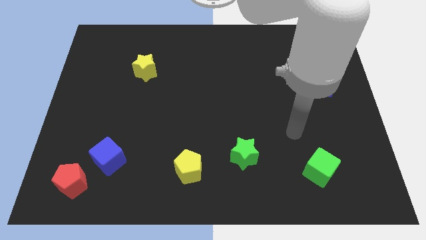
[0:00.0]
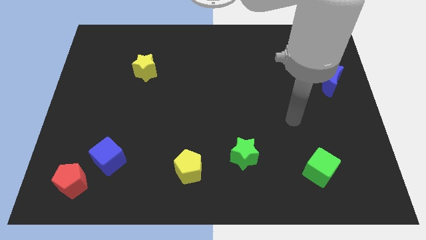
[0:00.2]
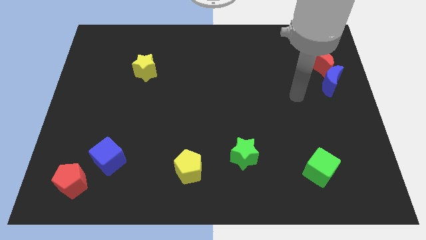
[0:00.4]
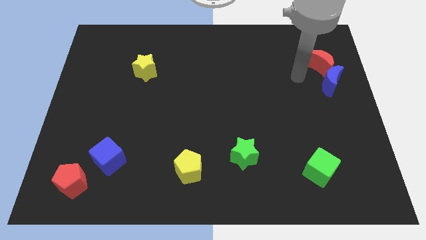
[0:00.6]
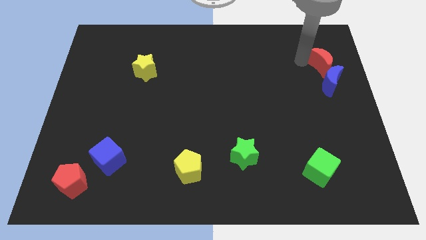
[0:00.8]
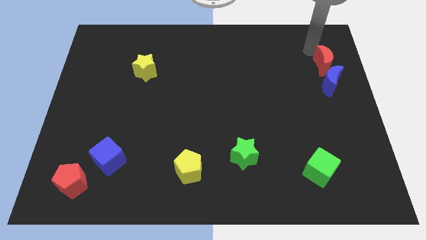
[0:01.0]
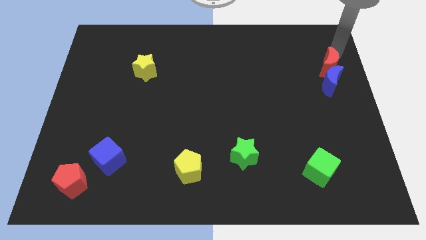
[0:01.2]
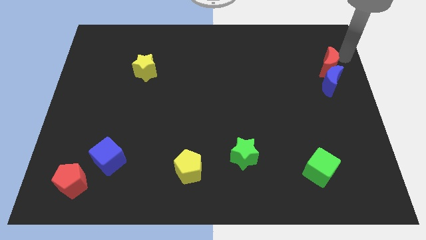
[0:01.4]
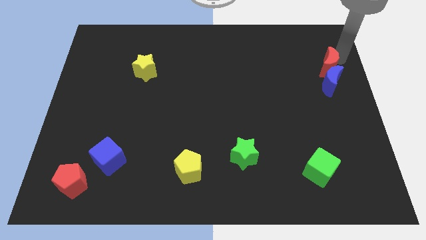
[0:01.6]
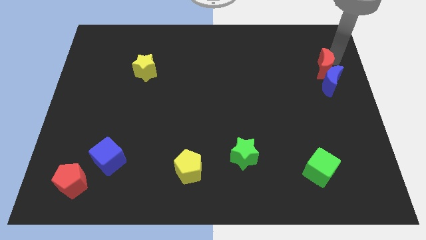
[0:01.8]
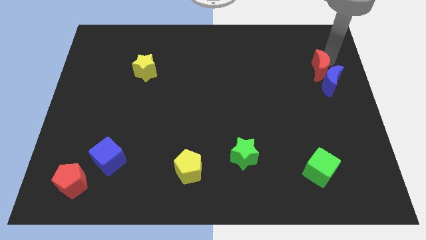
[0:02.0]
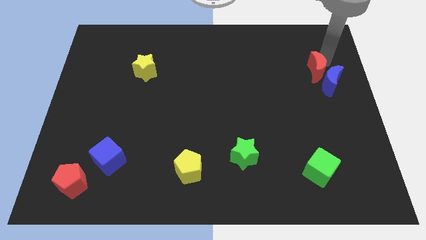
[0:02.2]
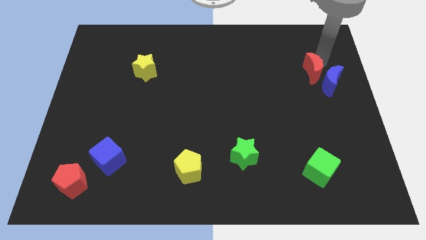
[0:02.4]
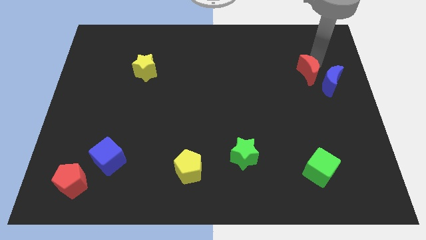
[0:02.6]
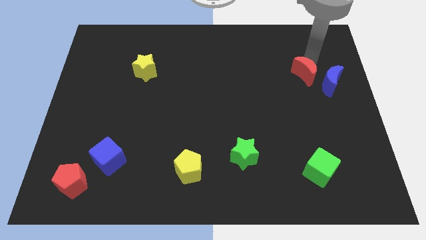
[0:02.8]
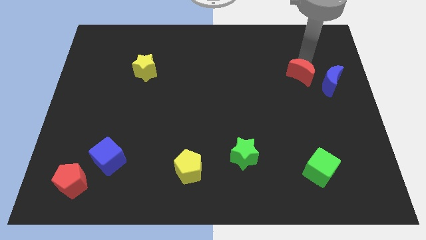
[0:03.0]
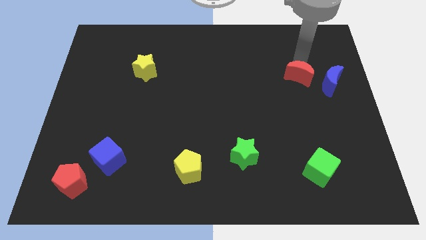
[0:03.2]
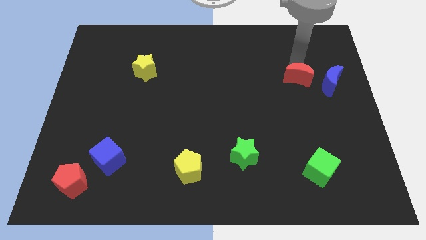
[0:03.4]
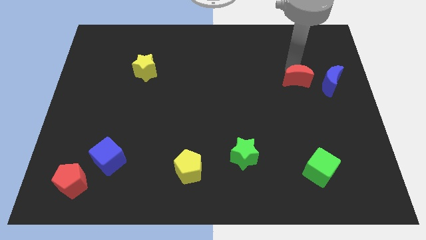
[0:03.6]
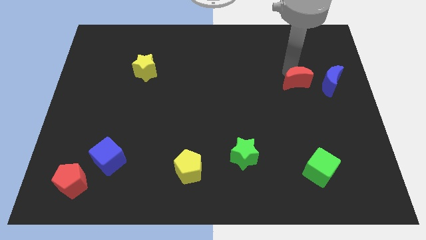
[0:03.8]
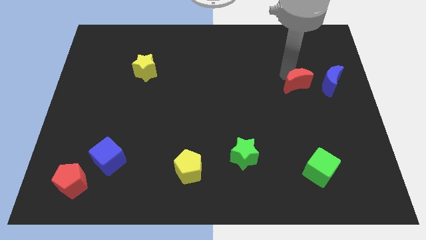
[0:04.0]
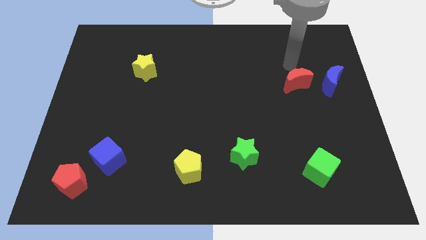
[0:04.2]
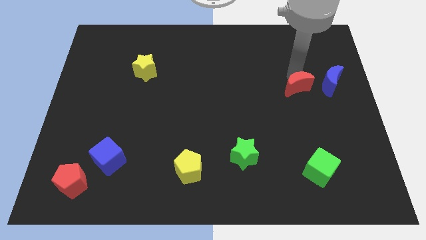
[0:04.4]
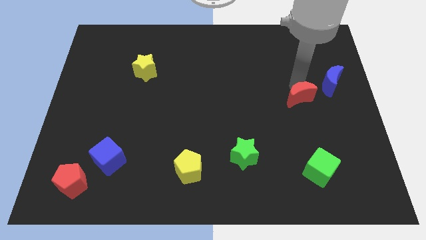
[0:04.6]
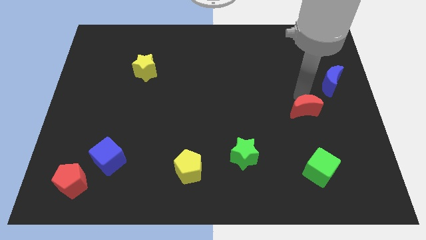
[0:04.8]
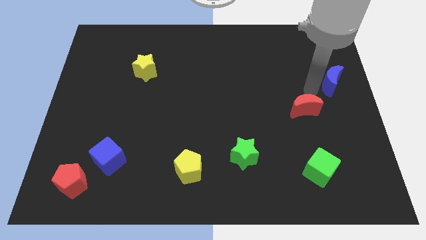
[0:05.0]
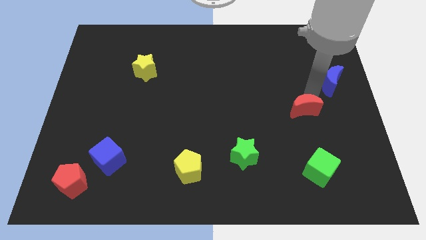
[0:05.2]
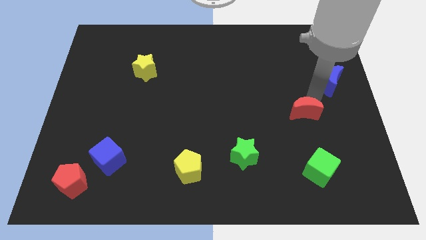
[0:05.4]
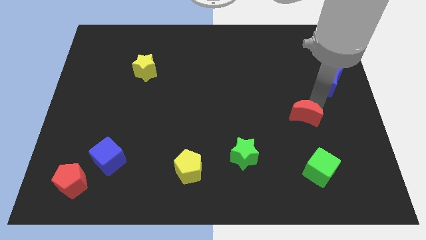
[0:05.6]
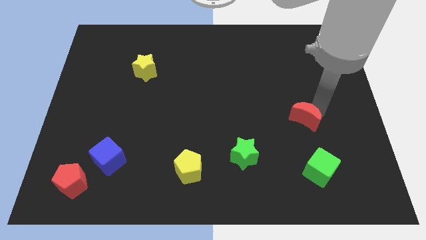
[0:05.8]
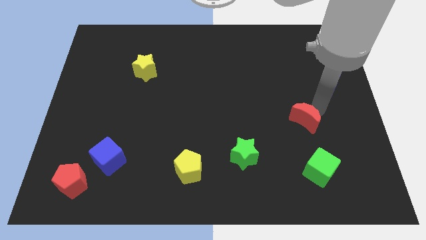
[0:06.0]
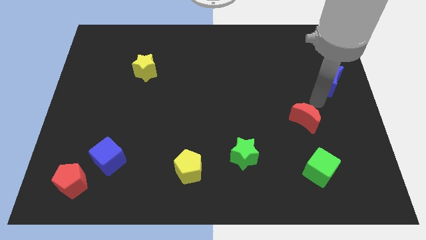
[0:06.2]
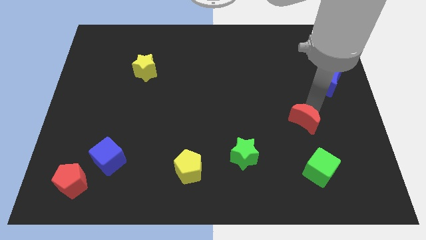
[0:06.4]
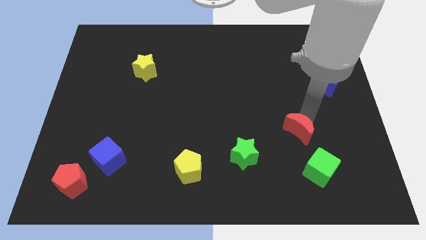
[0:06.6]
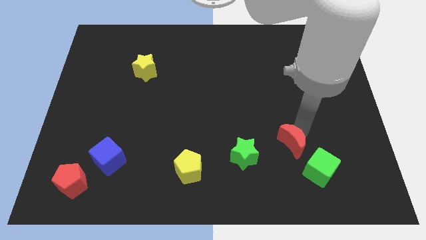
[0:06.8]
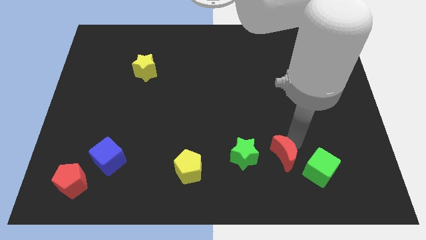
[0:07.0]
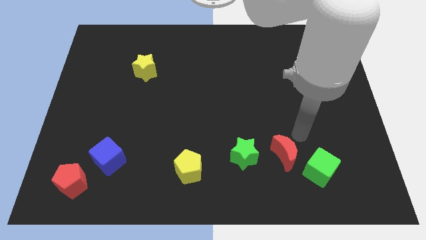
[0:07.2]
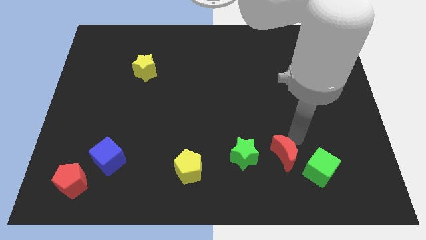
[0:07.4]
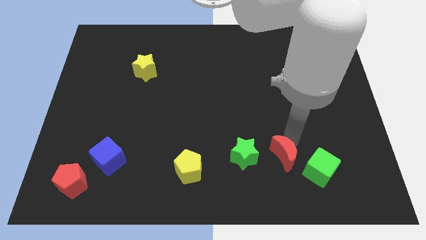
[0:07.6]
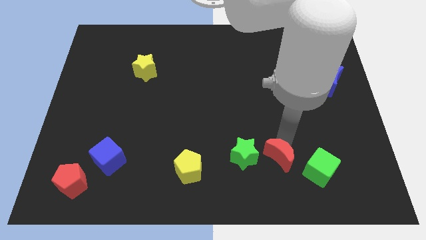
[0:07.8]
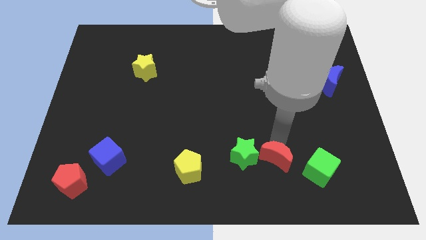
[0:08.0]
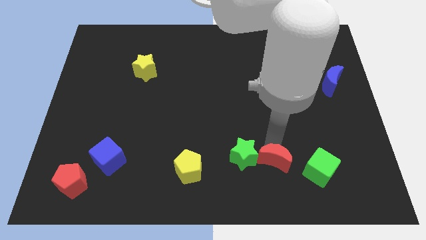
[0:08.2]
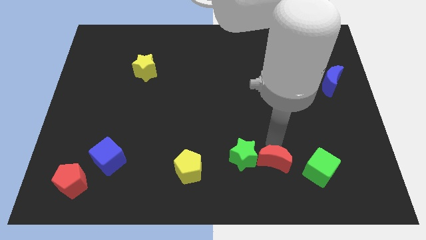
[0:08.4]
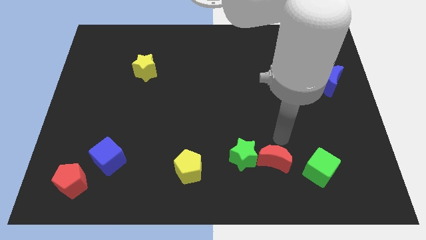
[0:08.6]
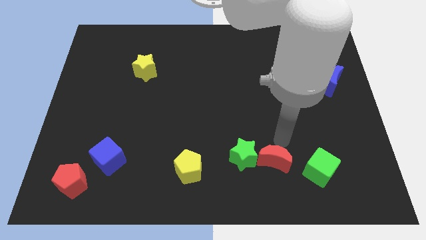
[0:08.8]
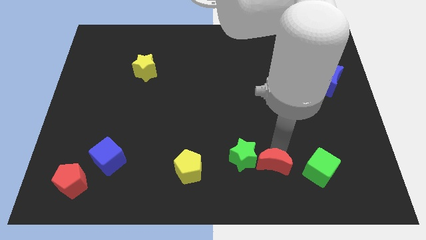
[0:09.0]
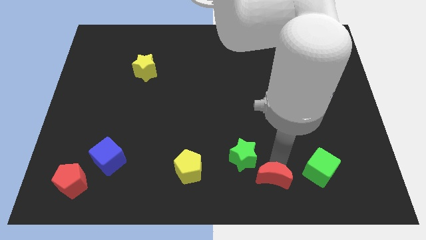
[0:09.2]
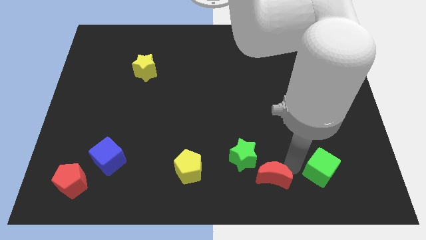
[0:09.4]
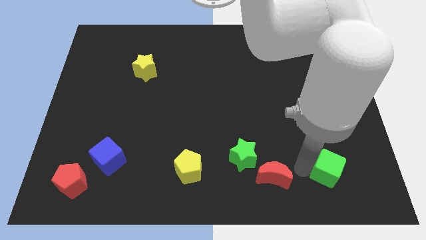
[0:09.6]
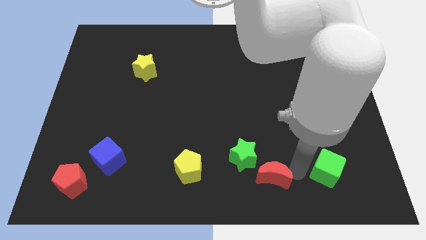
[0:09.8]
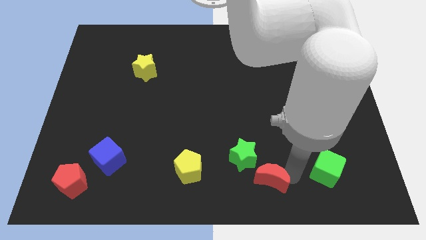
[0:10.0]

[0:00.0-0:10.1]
slide the red moon to the bottom

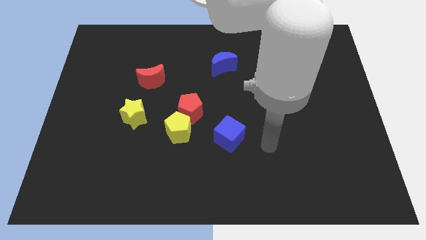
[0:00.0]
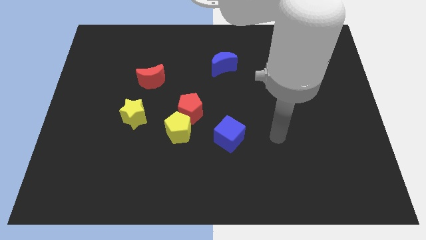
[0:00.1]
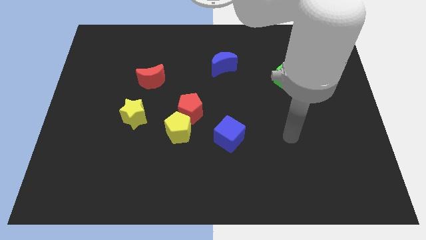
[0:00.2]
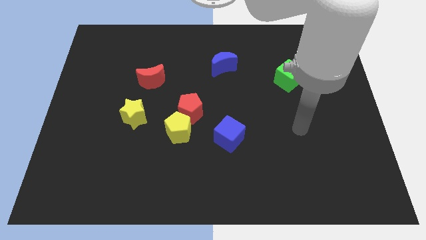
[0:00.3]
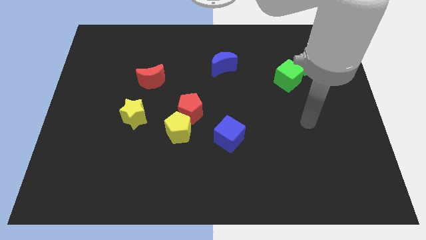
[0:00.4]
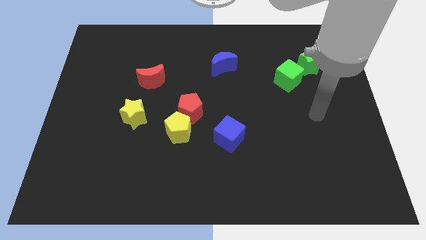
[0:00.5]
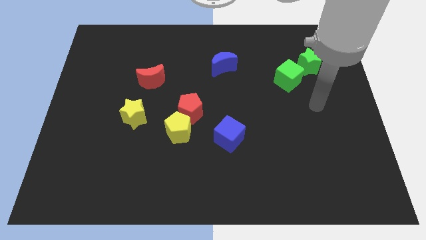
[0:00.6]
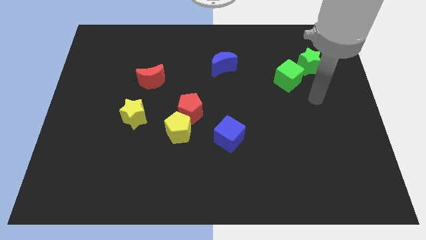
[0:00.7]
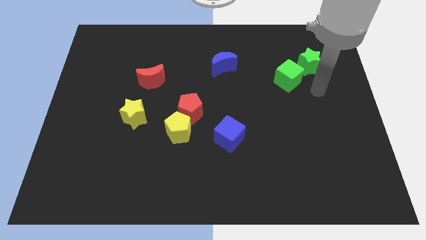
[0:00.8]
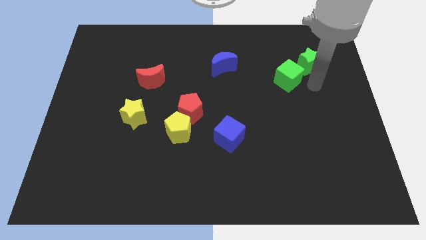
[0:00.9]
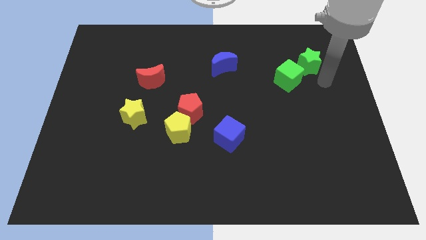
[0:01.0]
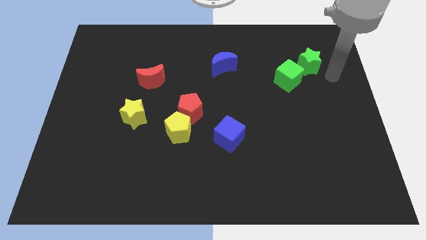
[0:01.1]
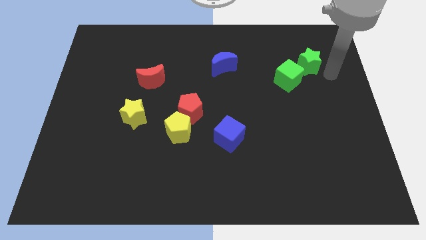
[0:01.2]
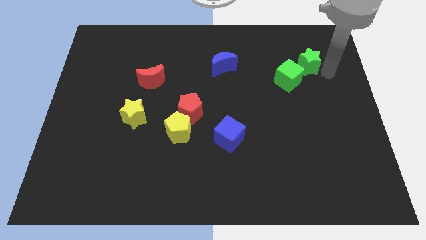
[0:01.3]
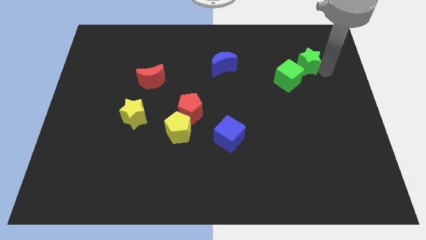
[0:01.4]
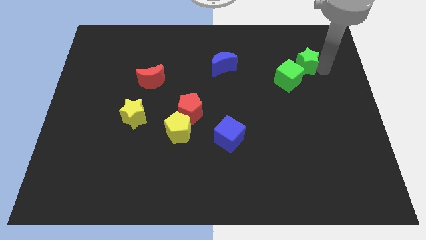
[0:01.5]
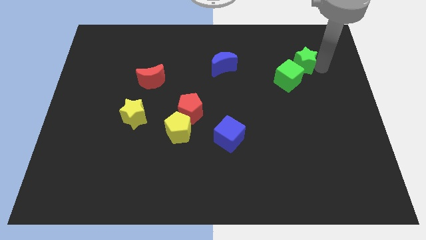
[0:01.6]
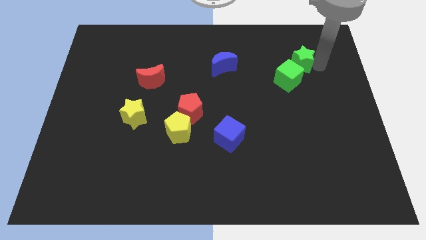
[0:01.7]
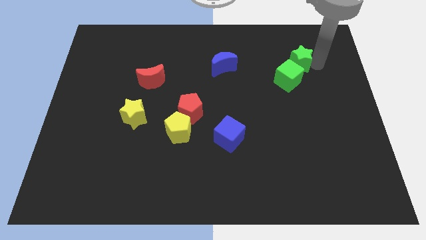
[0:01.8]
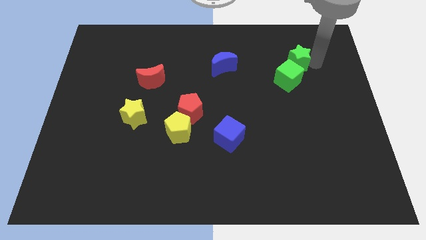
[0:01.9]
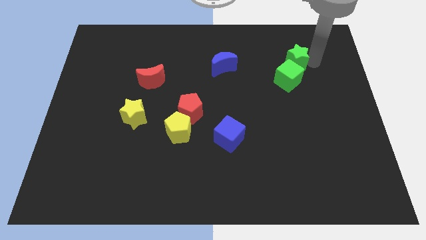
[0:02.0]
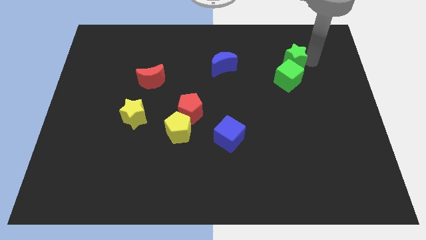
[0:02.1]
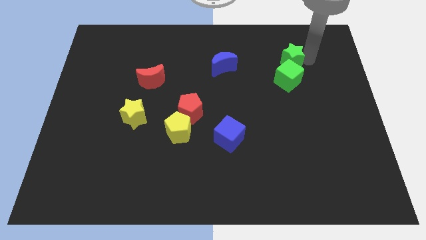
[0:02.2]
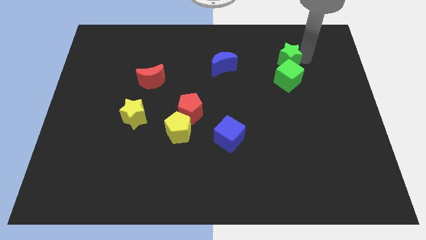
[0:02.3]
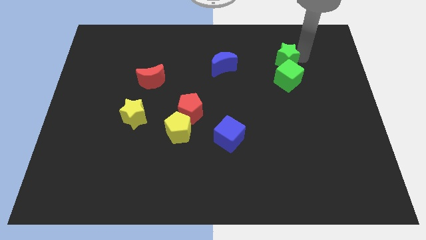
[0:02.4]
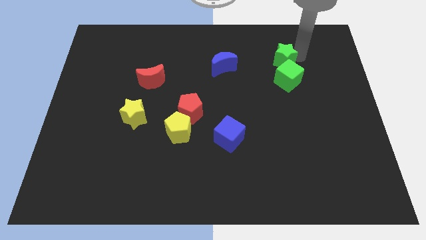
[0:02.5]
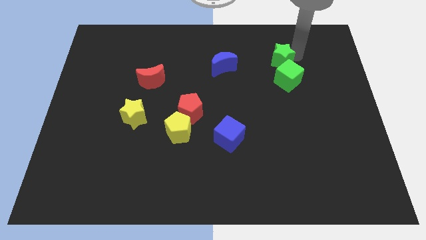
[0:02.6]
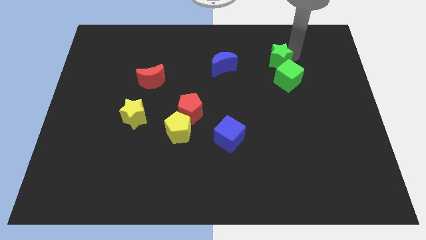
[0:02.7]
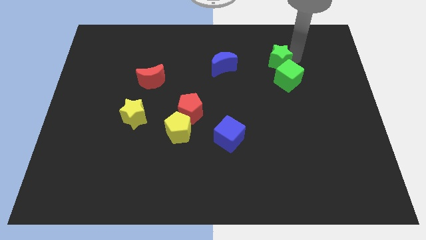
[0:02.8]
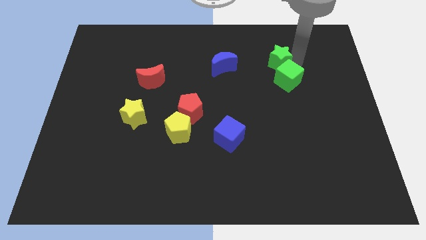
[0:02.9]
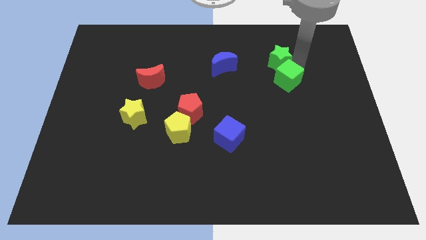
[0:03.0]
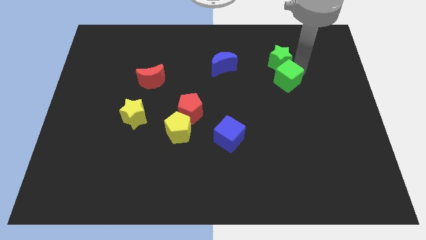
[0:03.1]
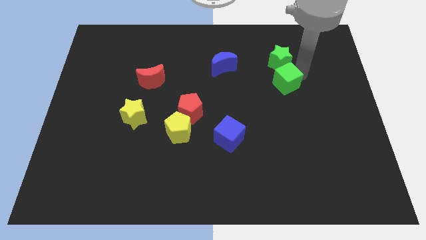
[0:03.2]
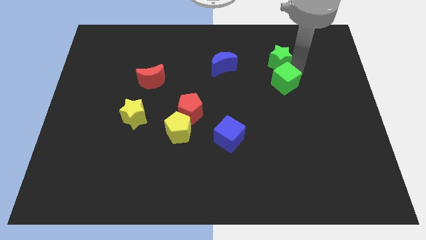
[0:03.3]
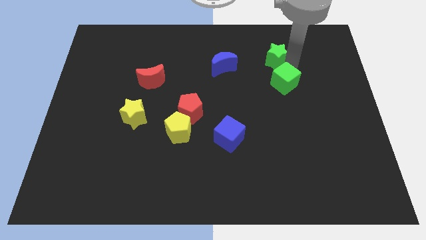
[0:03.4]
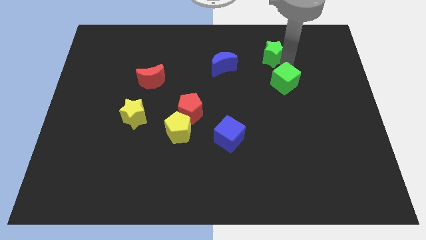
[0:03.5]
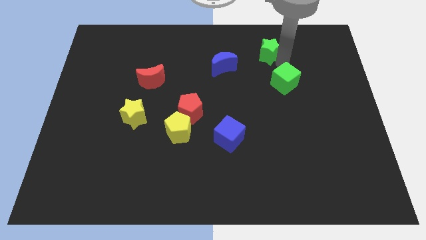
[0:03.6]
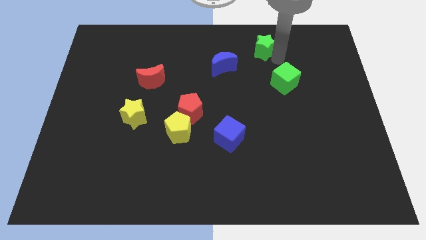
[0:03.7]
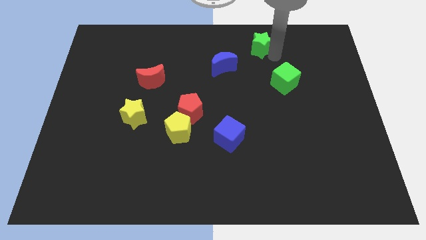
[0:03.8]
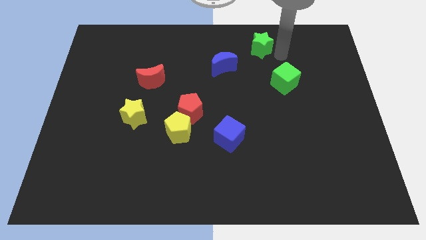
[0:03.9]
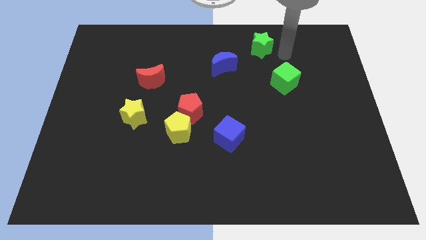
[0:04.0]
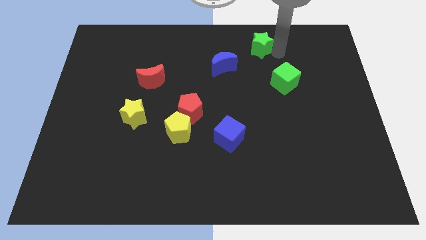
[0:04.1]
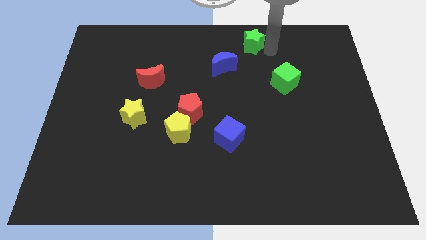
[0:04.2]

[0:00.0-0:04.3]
put the green star to the towards your base
